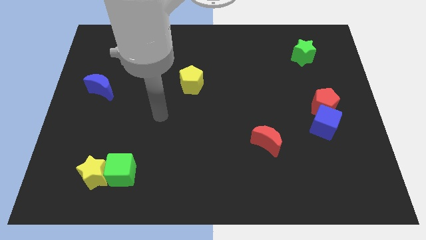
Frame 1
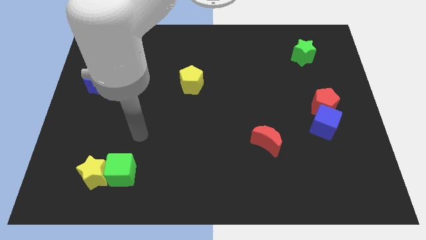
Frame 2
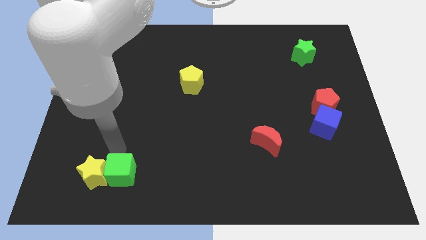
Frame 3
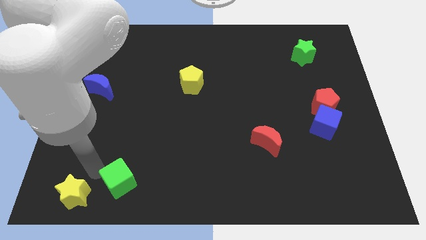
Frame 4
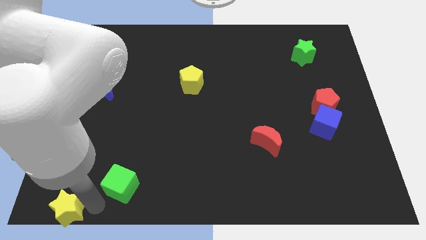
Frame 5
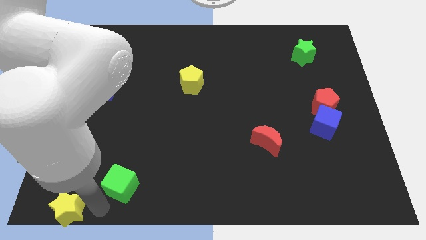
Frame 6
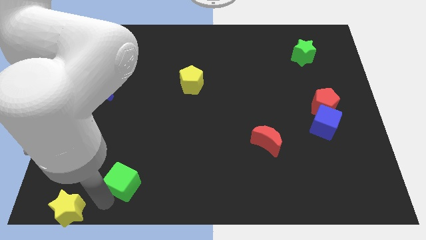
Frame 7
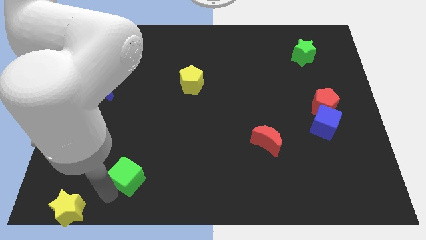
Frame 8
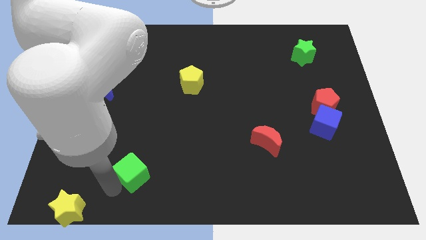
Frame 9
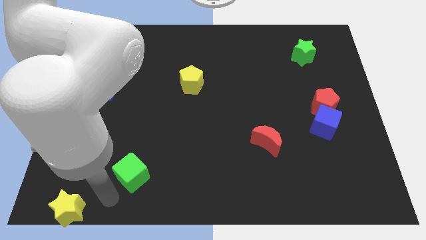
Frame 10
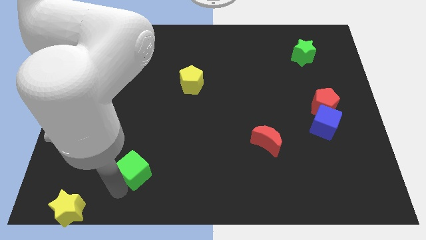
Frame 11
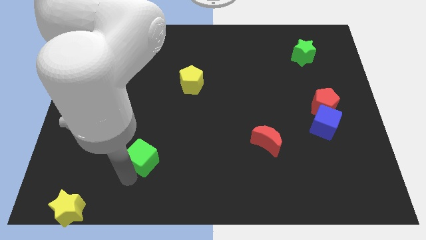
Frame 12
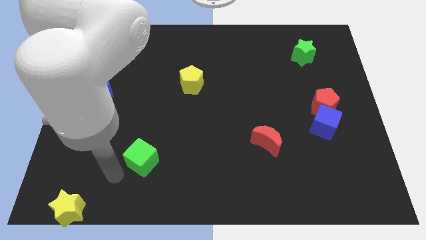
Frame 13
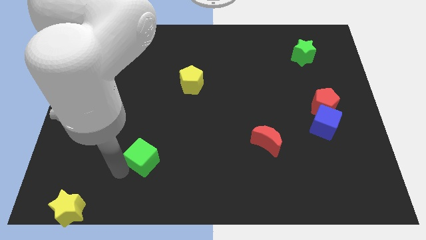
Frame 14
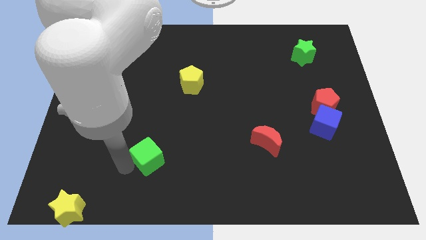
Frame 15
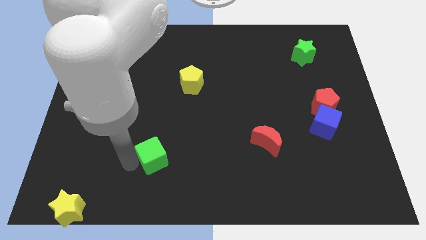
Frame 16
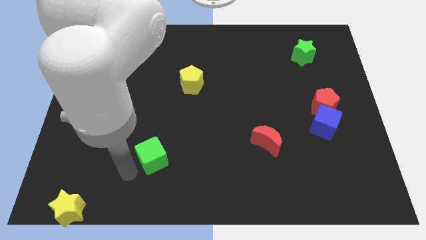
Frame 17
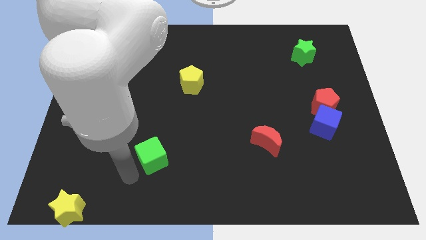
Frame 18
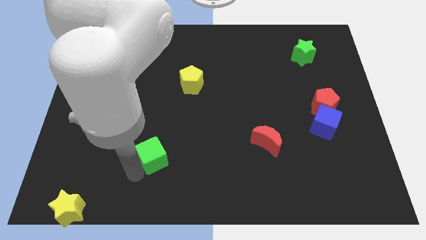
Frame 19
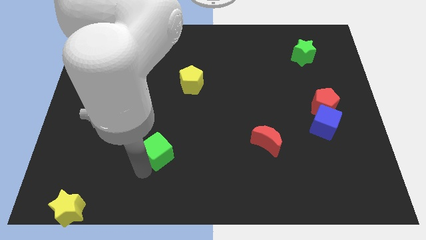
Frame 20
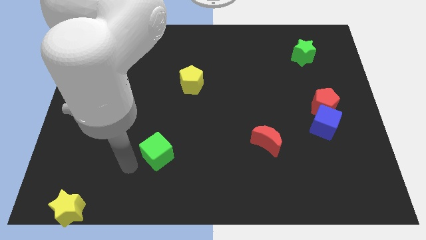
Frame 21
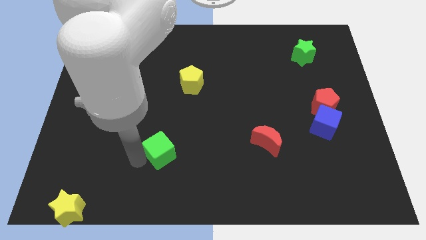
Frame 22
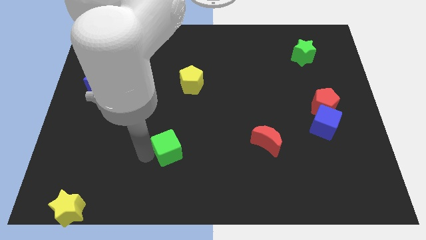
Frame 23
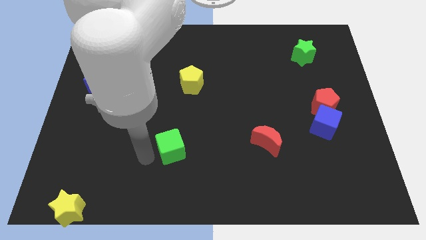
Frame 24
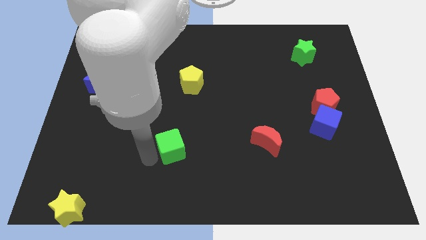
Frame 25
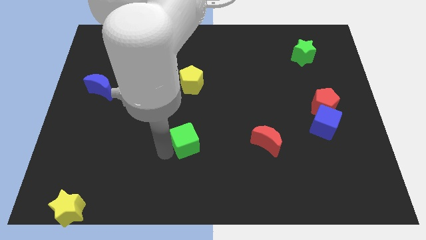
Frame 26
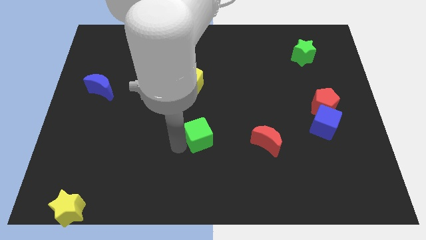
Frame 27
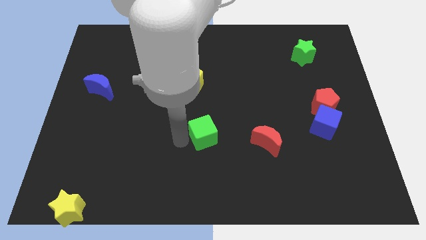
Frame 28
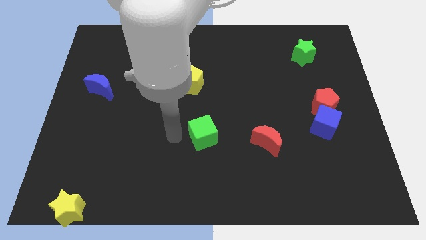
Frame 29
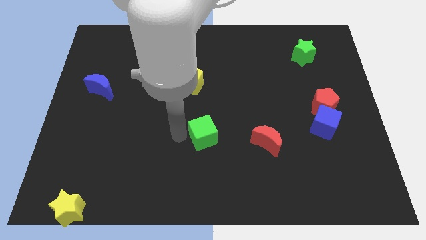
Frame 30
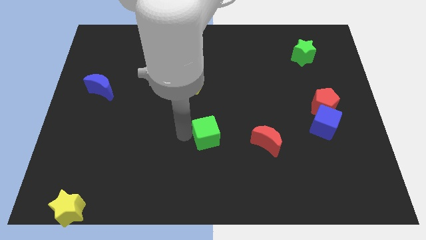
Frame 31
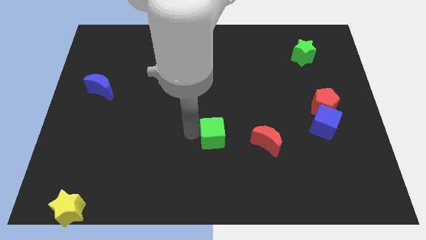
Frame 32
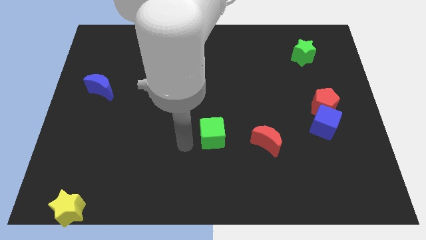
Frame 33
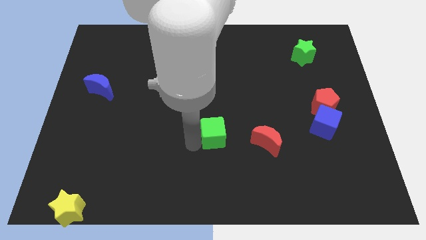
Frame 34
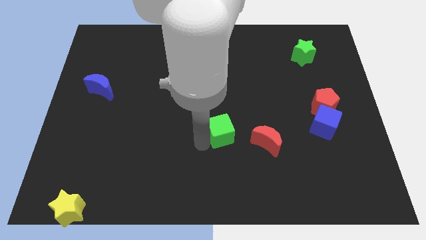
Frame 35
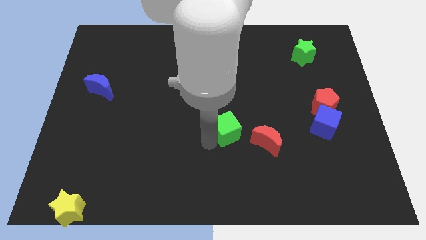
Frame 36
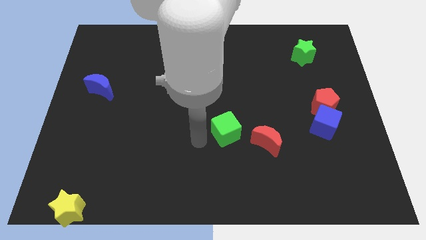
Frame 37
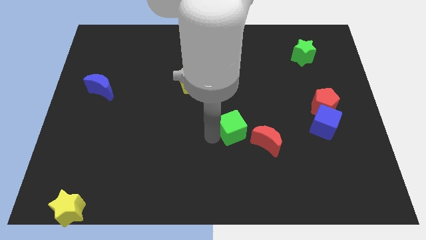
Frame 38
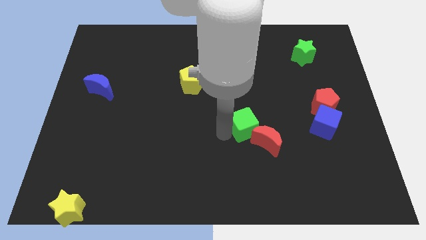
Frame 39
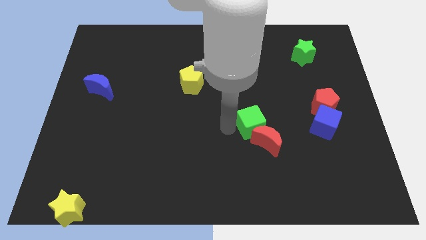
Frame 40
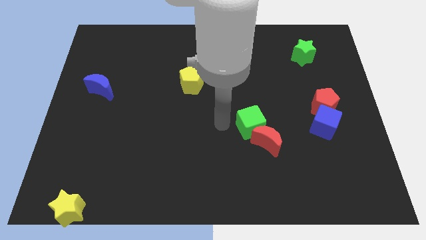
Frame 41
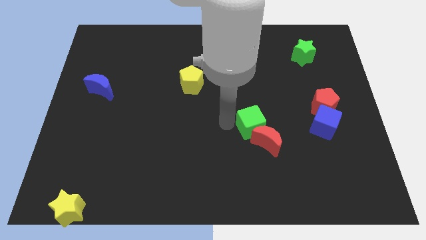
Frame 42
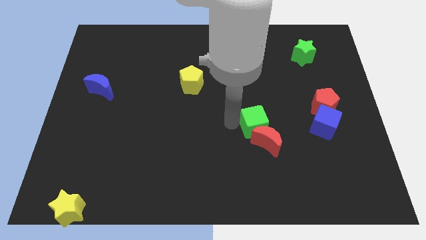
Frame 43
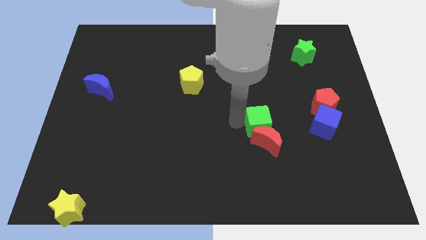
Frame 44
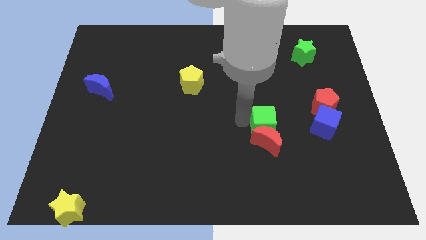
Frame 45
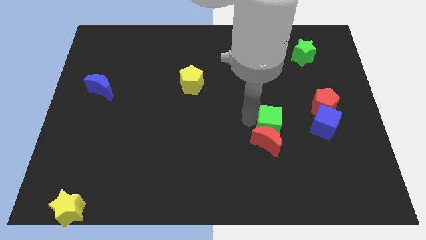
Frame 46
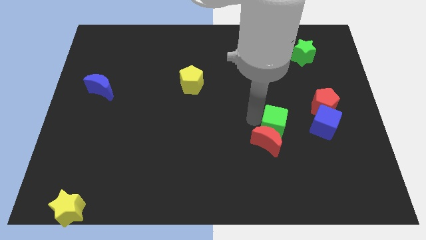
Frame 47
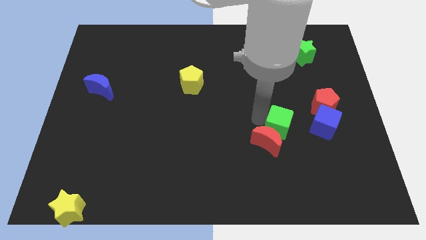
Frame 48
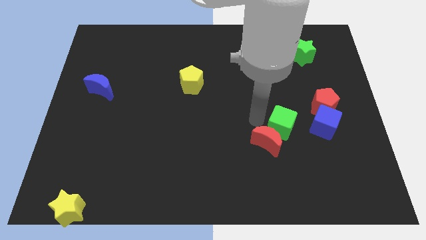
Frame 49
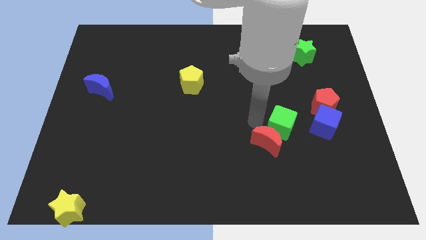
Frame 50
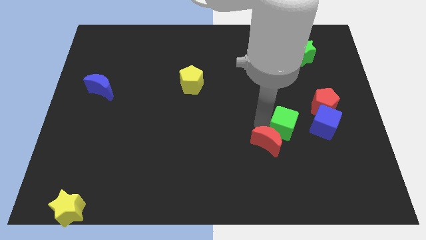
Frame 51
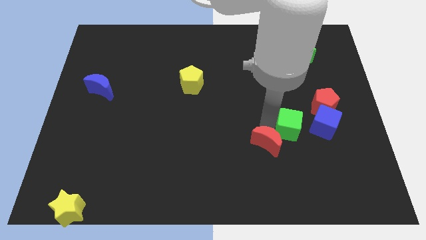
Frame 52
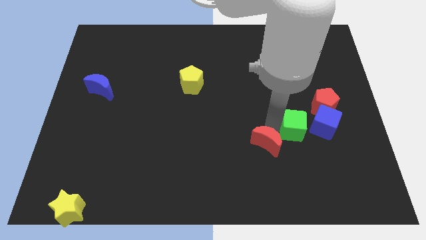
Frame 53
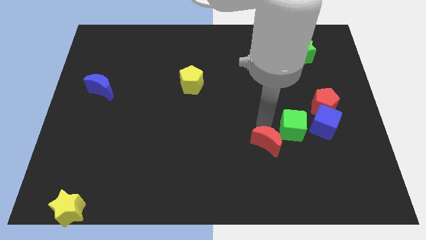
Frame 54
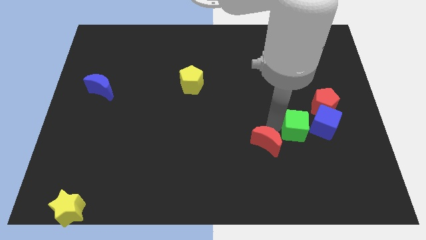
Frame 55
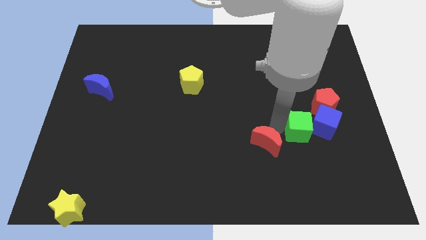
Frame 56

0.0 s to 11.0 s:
put the green cube towards the blue cube
